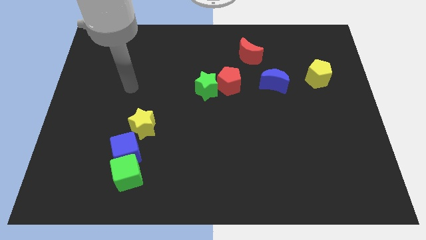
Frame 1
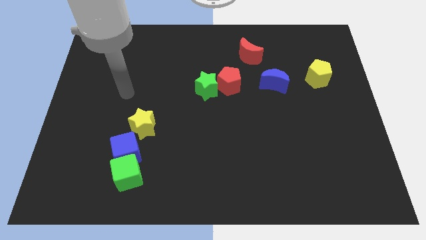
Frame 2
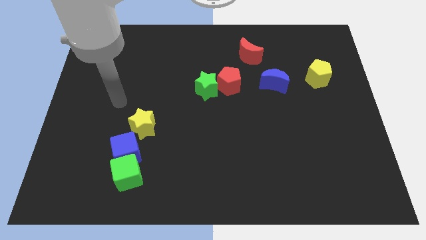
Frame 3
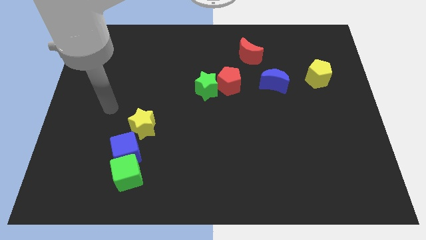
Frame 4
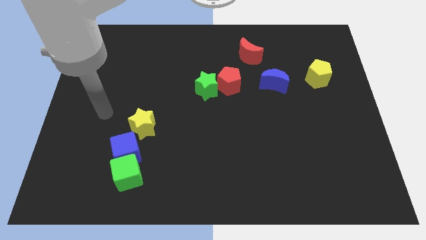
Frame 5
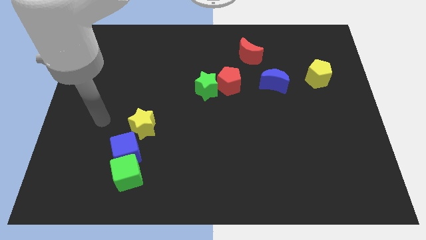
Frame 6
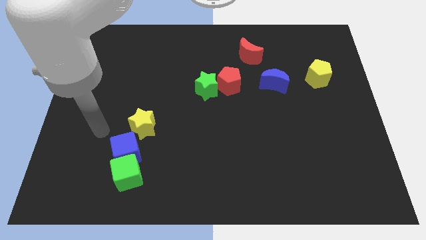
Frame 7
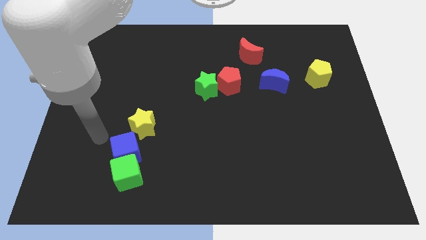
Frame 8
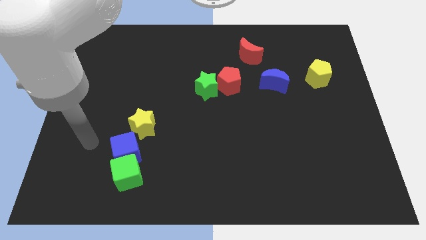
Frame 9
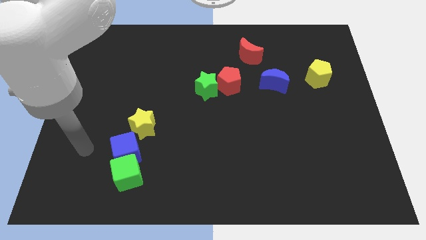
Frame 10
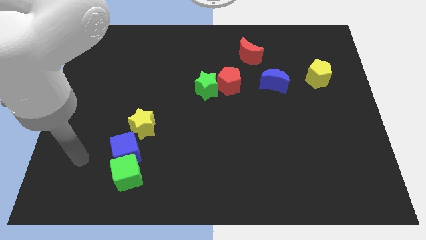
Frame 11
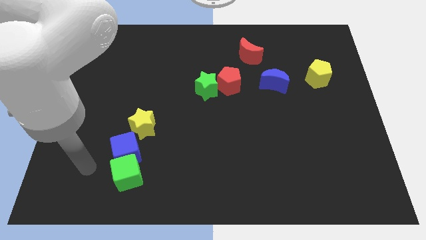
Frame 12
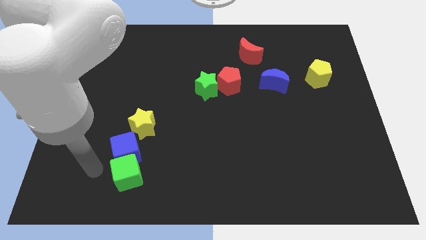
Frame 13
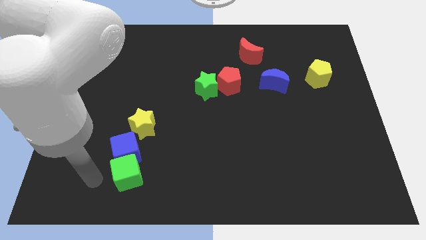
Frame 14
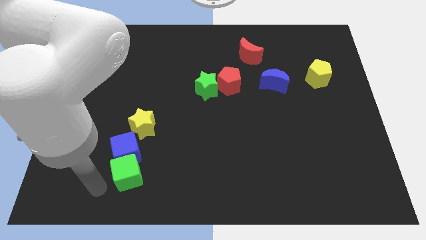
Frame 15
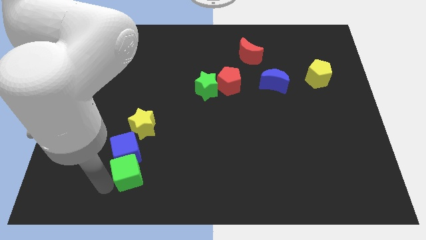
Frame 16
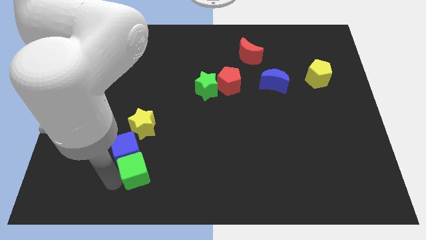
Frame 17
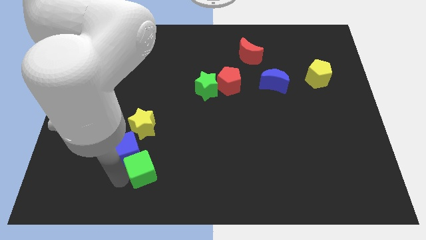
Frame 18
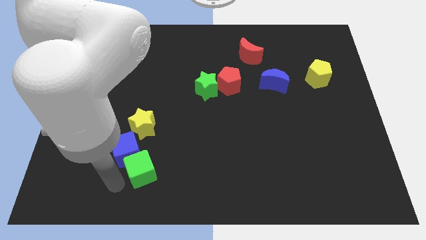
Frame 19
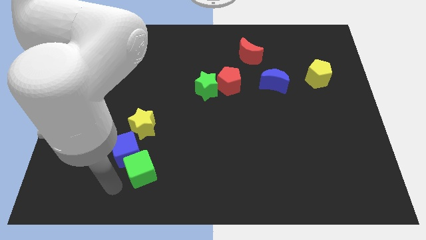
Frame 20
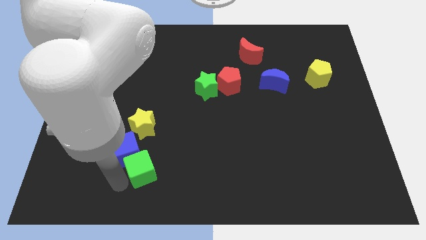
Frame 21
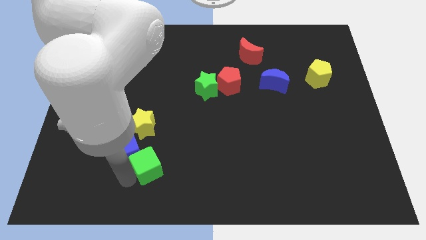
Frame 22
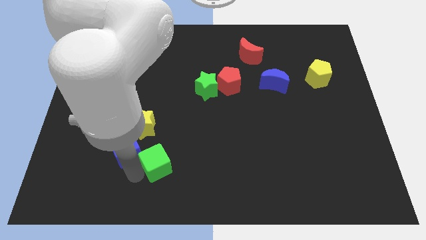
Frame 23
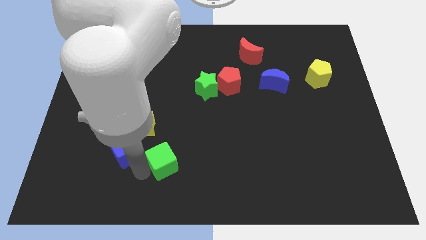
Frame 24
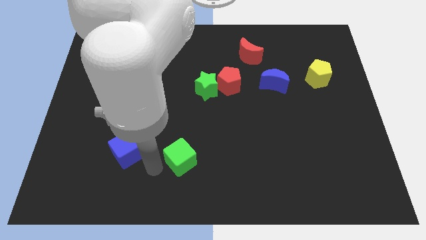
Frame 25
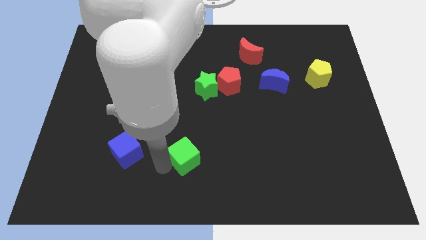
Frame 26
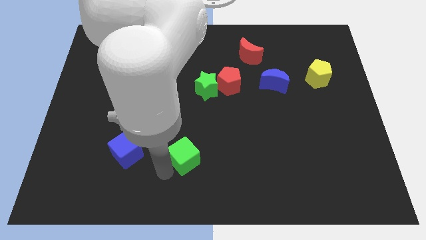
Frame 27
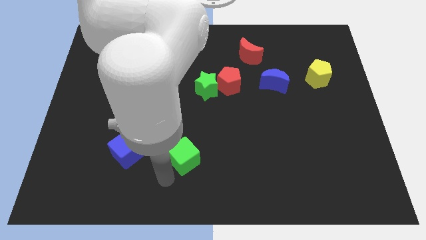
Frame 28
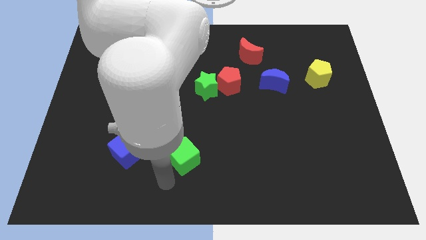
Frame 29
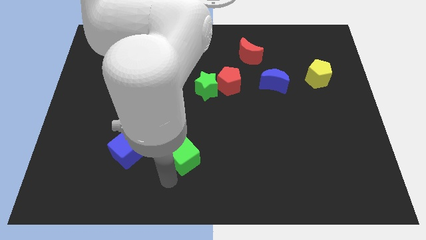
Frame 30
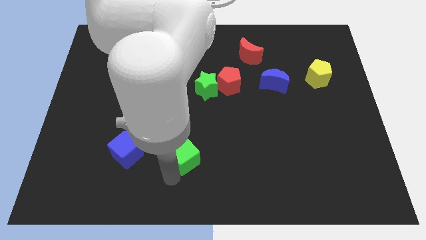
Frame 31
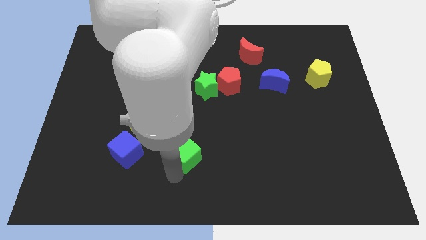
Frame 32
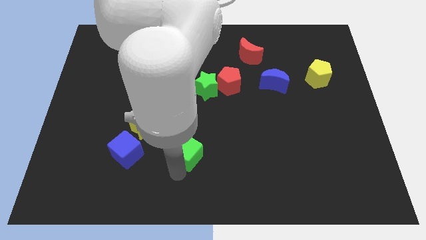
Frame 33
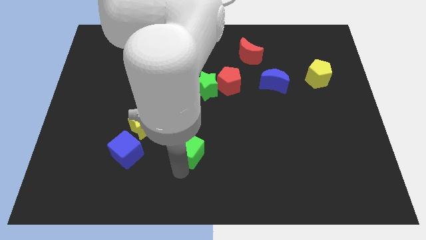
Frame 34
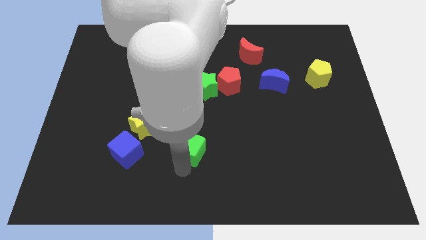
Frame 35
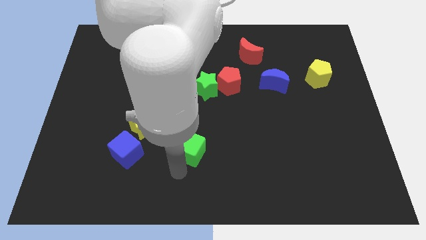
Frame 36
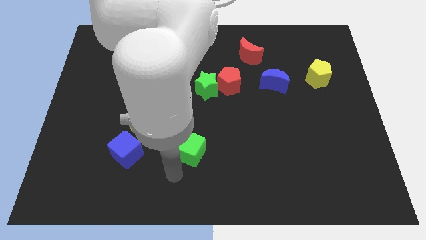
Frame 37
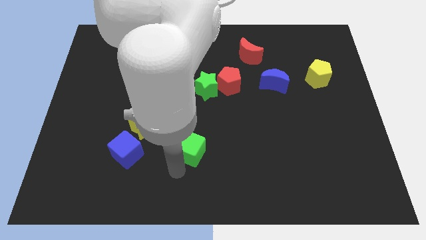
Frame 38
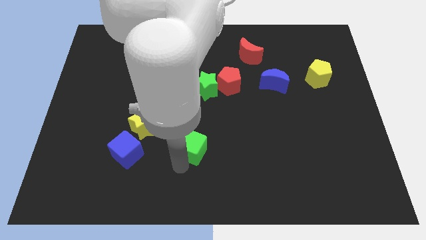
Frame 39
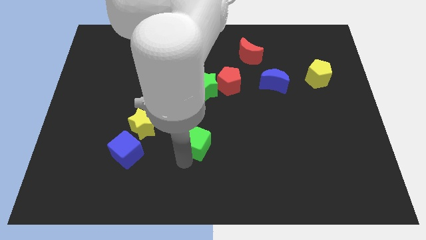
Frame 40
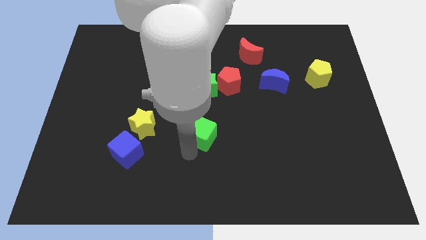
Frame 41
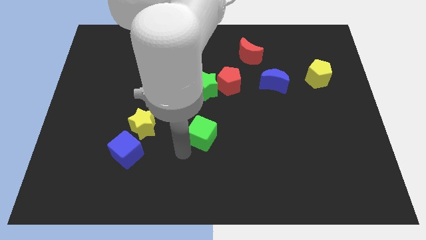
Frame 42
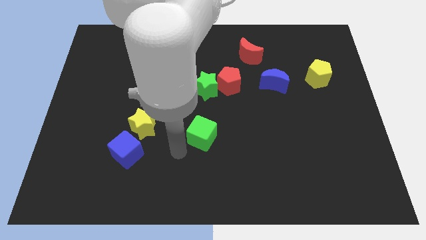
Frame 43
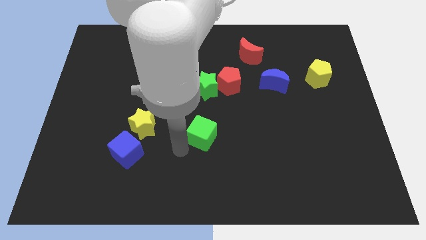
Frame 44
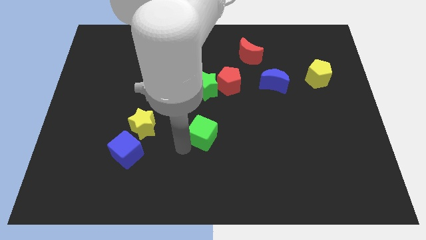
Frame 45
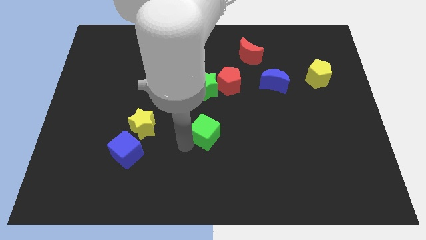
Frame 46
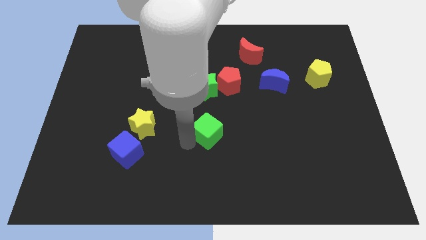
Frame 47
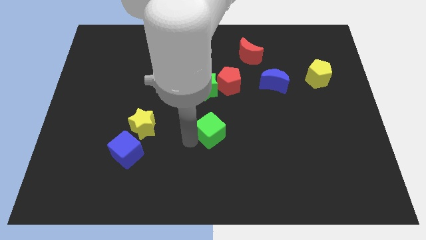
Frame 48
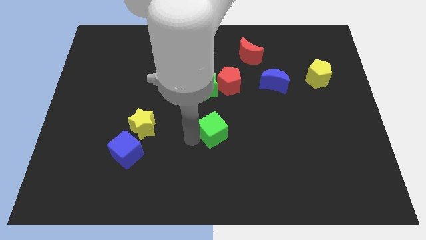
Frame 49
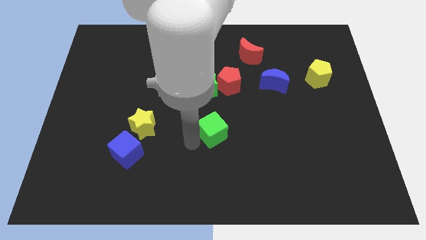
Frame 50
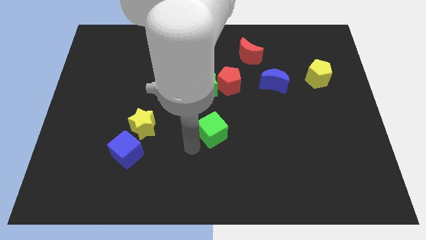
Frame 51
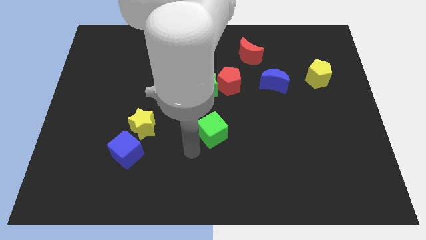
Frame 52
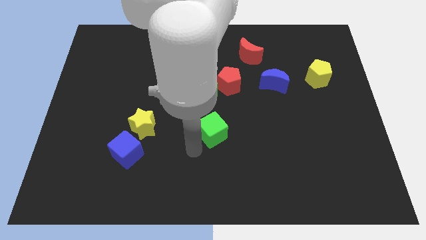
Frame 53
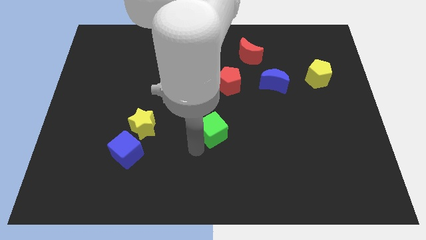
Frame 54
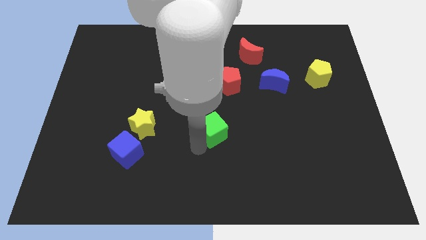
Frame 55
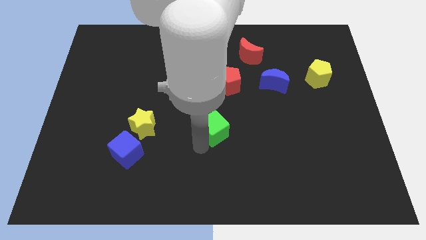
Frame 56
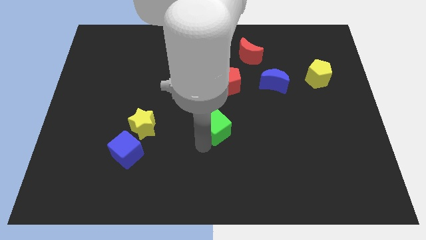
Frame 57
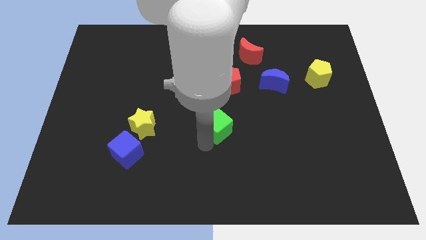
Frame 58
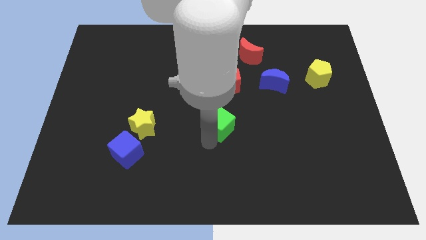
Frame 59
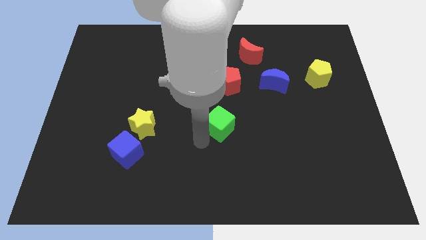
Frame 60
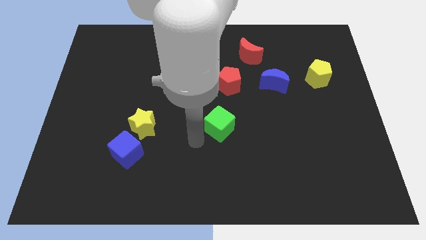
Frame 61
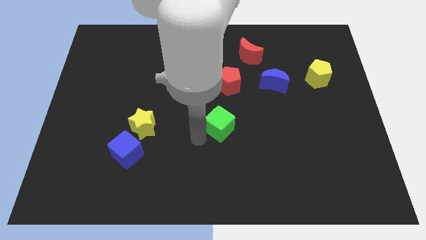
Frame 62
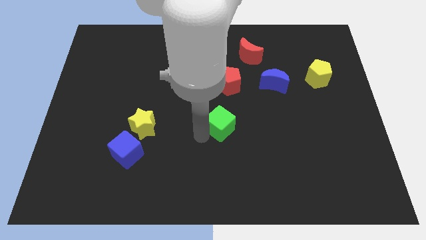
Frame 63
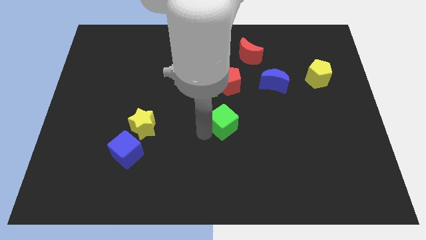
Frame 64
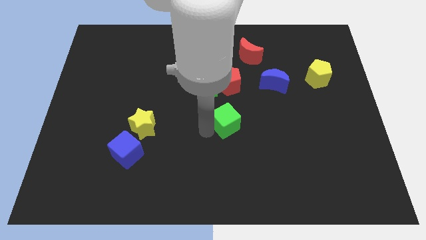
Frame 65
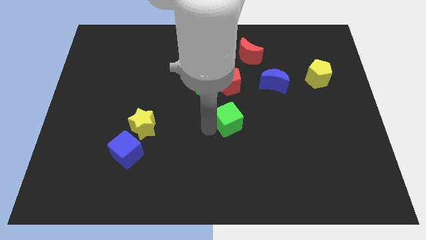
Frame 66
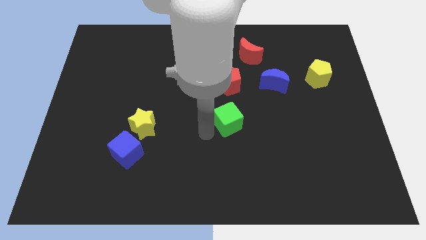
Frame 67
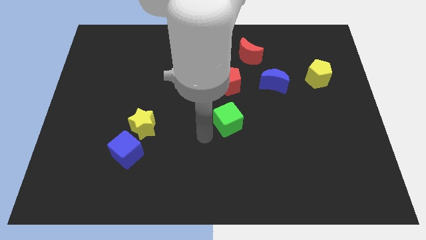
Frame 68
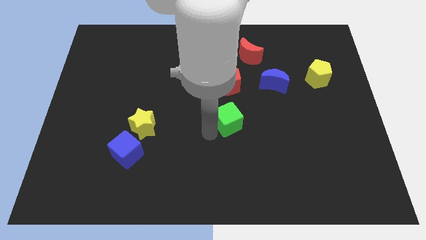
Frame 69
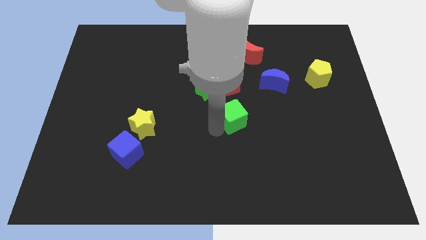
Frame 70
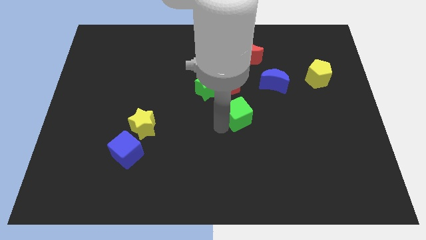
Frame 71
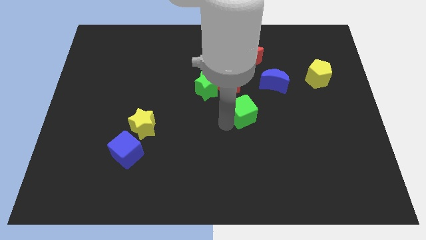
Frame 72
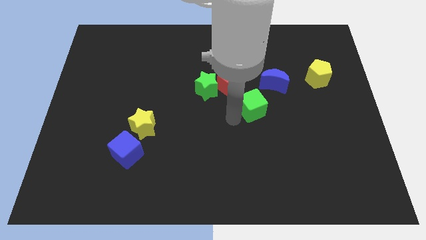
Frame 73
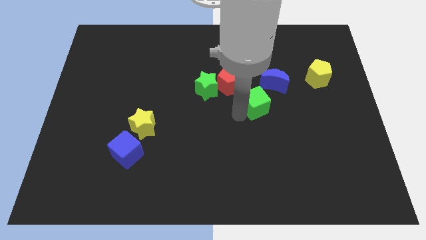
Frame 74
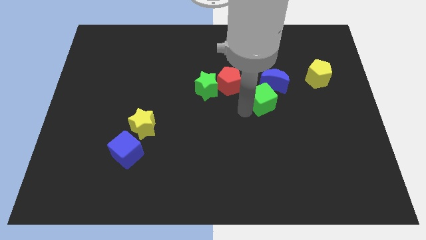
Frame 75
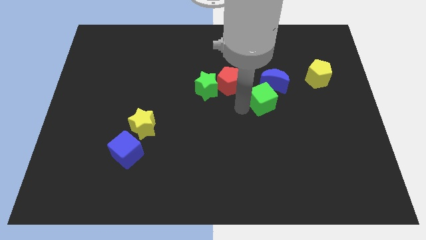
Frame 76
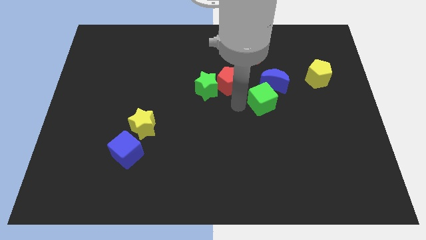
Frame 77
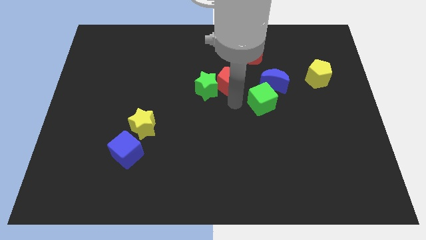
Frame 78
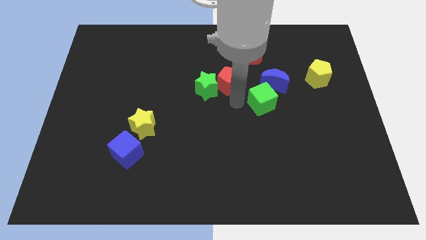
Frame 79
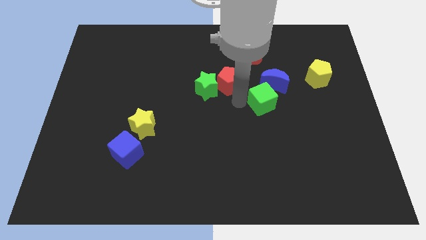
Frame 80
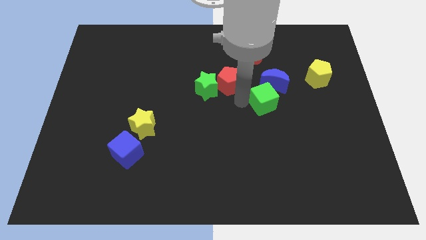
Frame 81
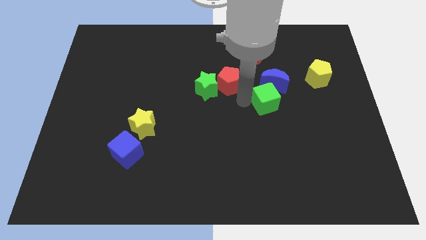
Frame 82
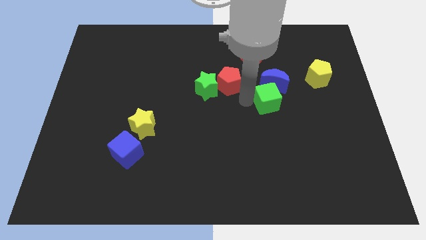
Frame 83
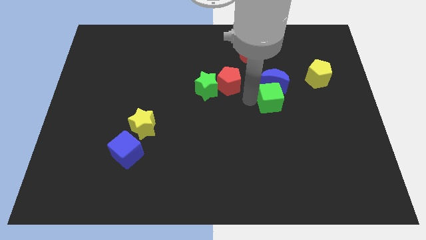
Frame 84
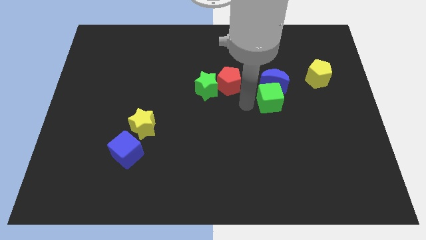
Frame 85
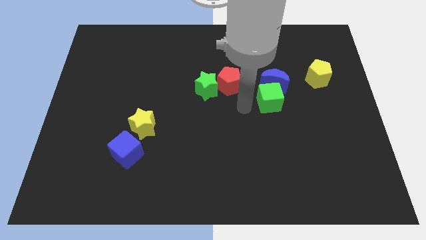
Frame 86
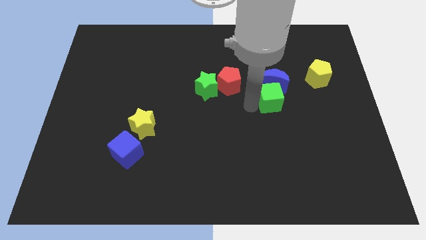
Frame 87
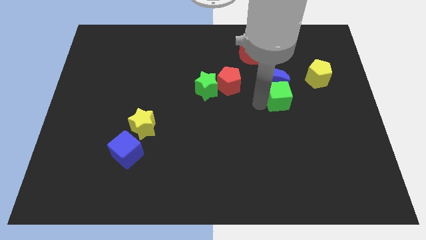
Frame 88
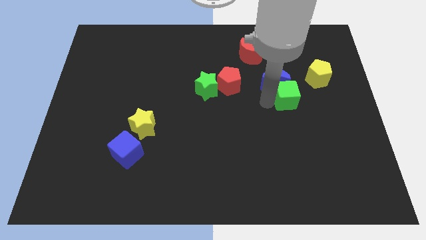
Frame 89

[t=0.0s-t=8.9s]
slide the green cube to the bottom left of the yellow pentagon
